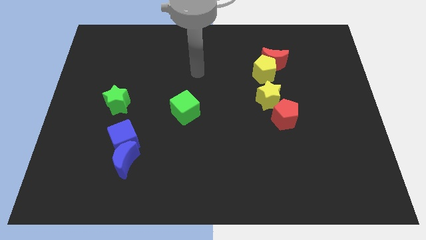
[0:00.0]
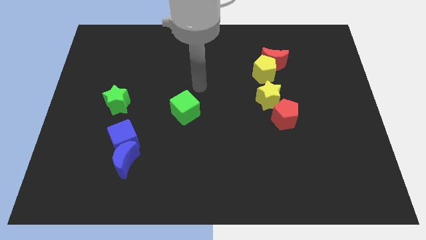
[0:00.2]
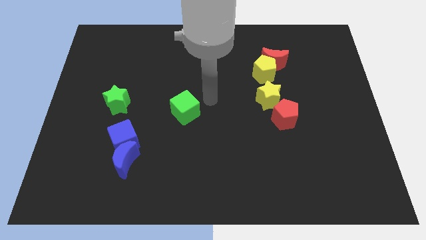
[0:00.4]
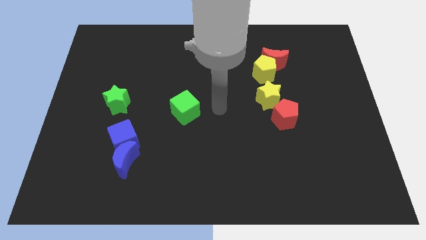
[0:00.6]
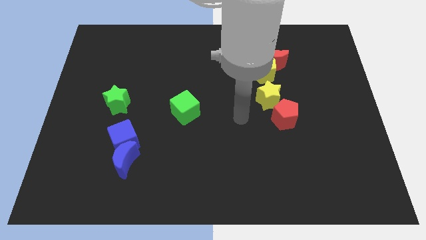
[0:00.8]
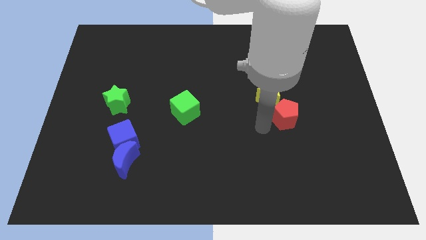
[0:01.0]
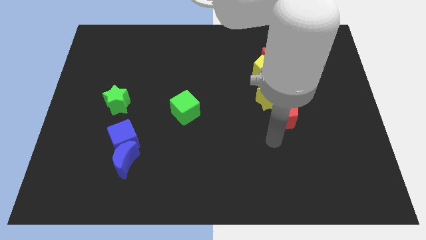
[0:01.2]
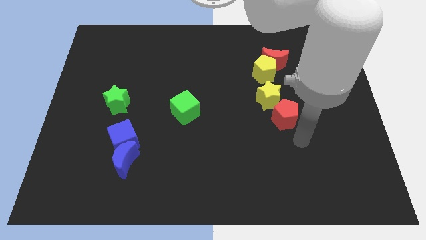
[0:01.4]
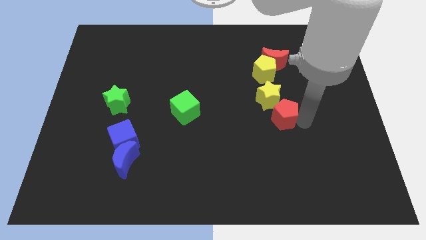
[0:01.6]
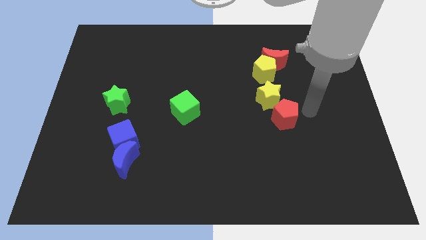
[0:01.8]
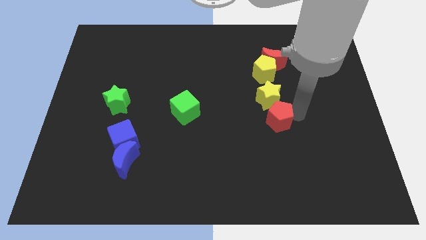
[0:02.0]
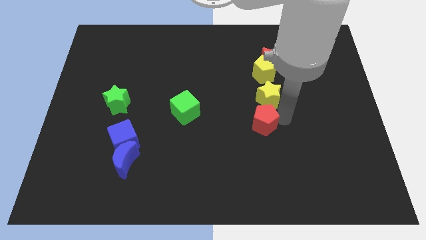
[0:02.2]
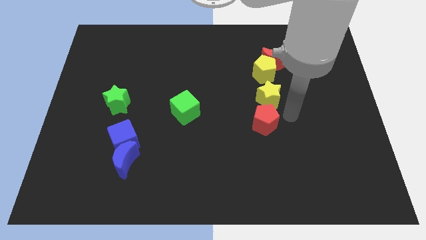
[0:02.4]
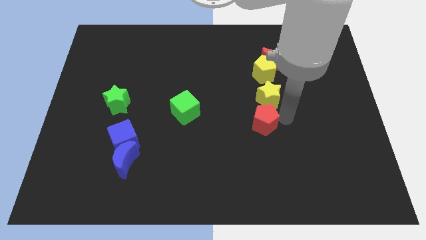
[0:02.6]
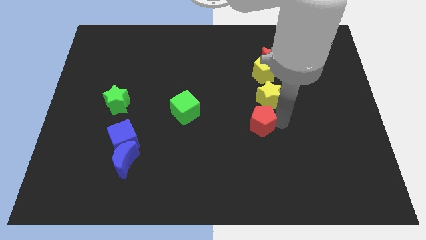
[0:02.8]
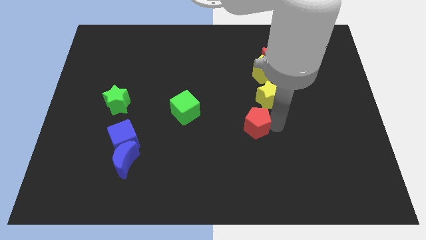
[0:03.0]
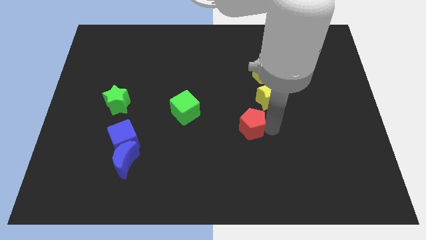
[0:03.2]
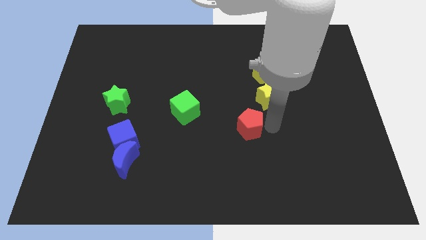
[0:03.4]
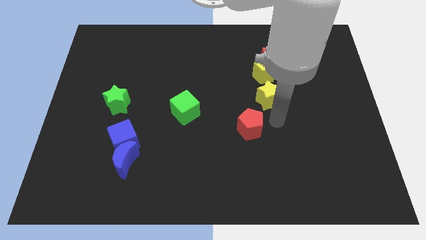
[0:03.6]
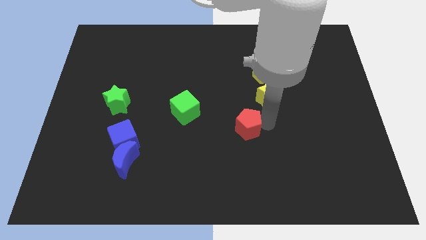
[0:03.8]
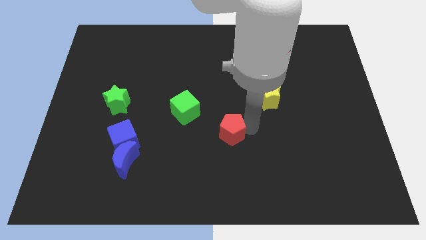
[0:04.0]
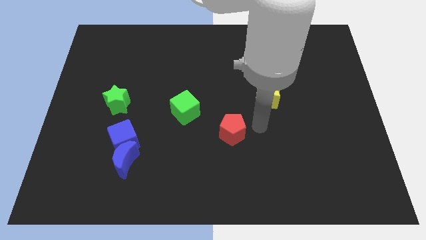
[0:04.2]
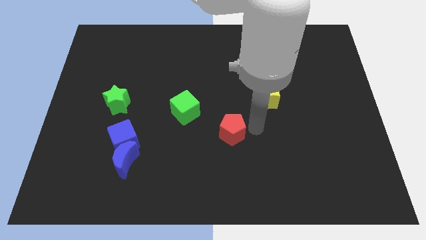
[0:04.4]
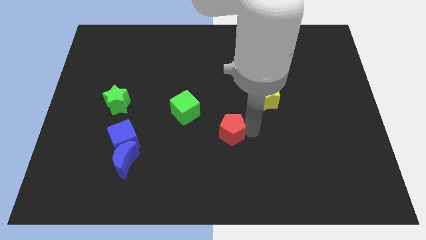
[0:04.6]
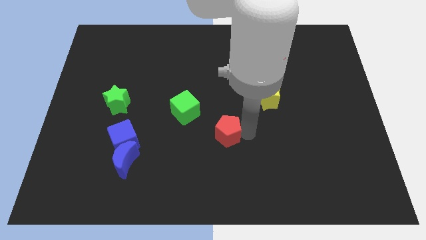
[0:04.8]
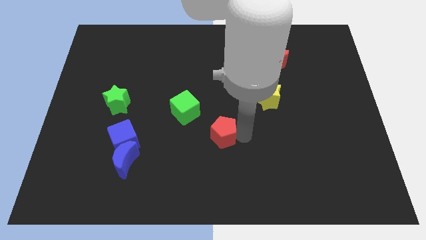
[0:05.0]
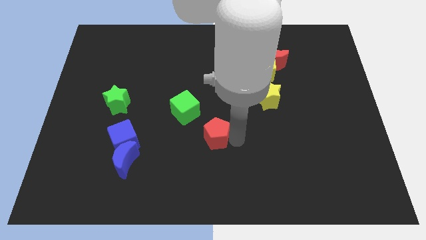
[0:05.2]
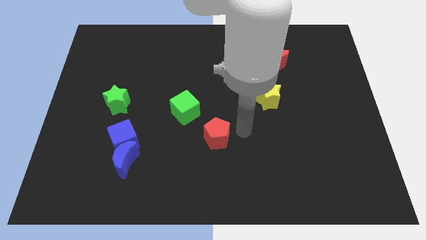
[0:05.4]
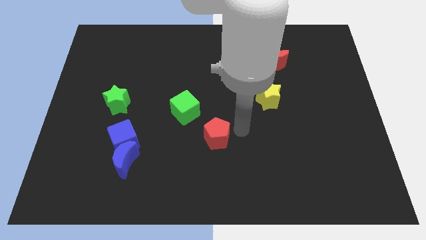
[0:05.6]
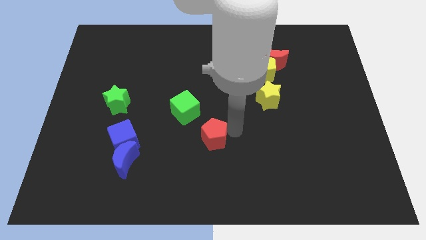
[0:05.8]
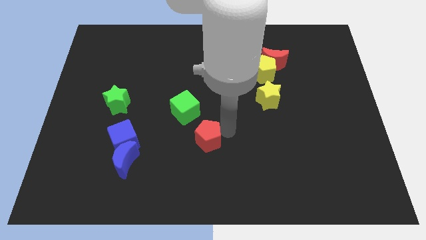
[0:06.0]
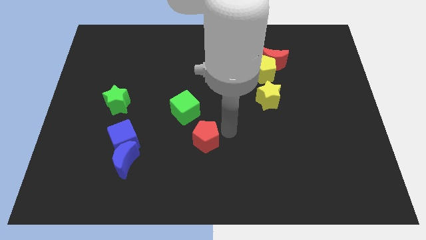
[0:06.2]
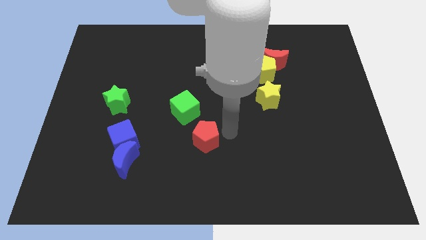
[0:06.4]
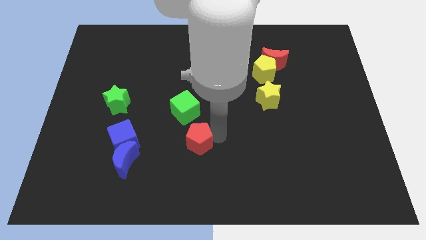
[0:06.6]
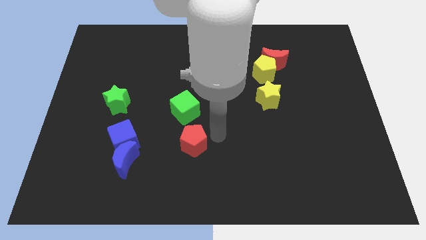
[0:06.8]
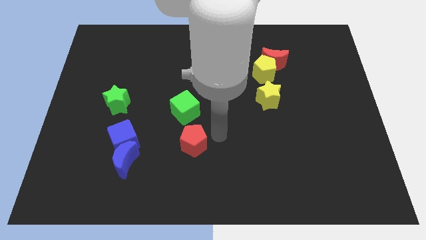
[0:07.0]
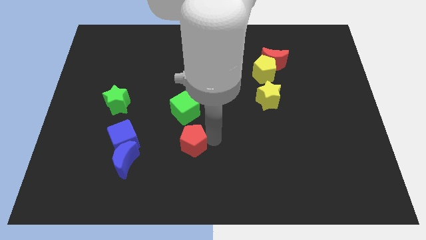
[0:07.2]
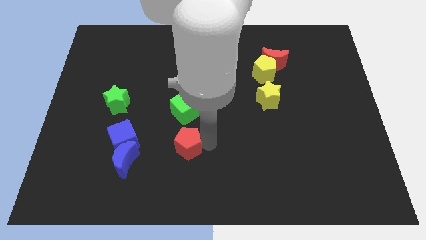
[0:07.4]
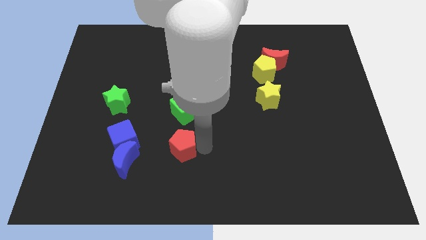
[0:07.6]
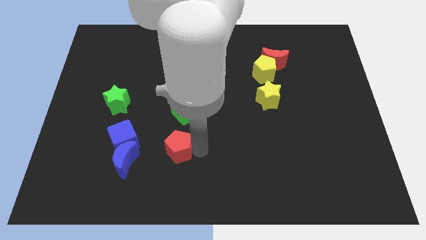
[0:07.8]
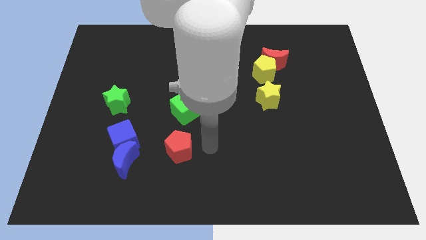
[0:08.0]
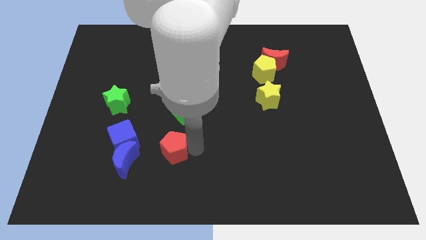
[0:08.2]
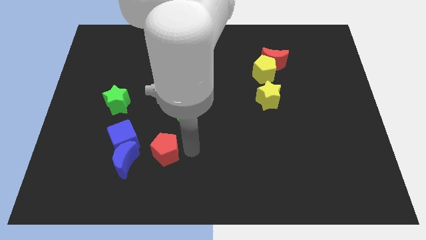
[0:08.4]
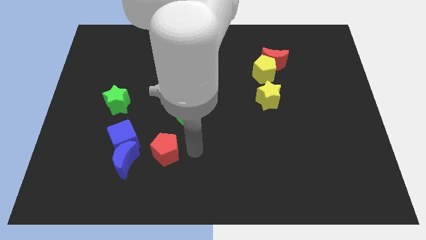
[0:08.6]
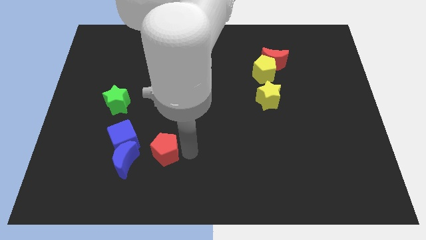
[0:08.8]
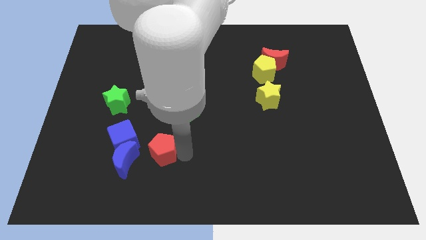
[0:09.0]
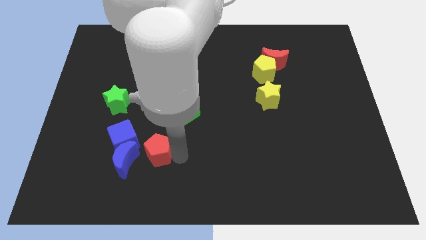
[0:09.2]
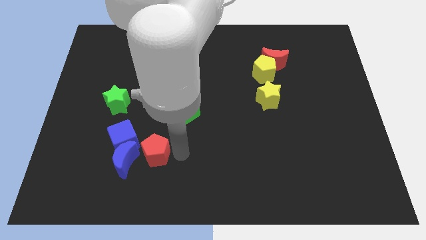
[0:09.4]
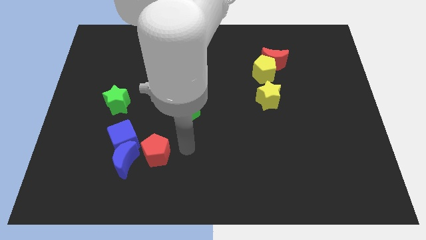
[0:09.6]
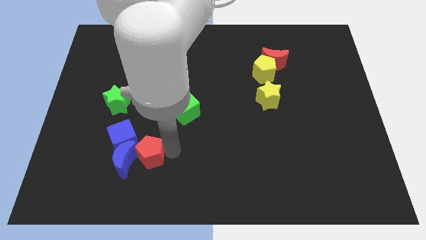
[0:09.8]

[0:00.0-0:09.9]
slide the red pentagon towards the blue moon

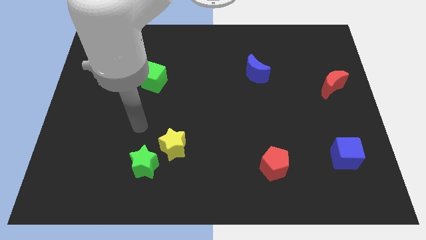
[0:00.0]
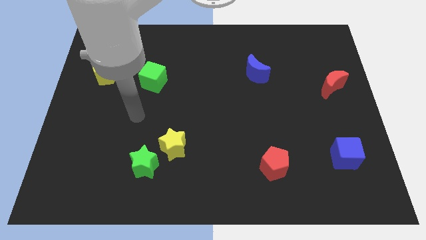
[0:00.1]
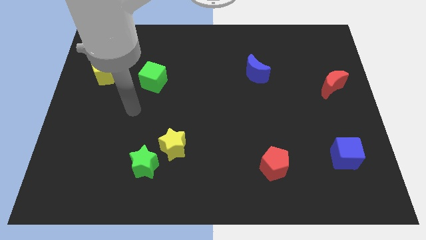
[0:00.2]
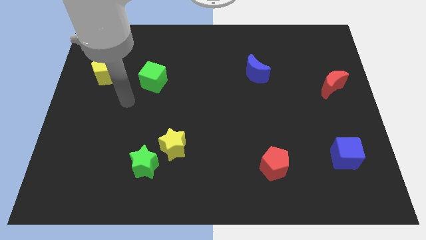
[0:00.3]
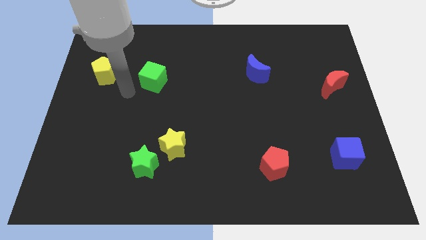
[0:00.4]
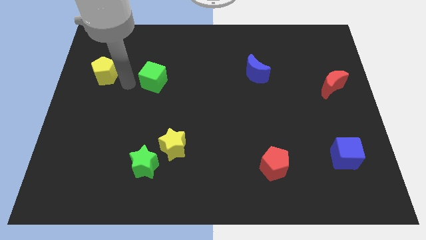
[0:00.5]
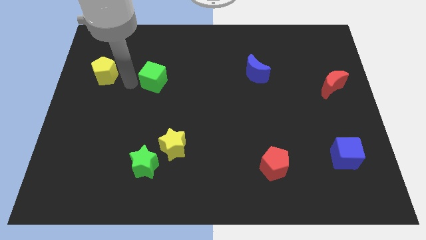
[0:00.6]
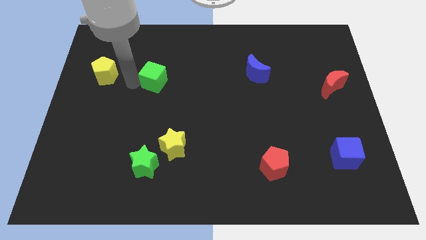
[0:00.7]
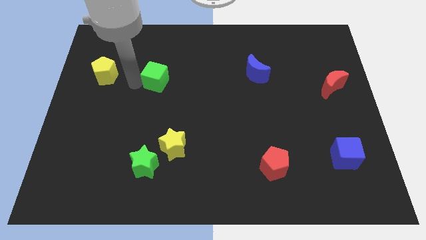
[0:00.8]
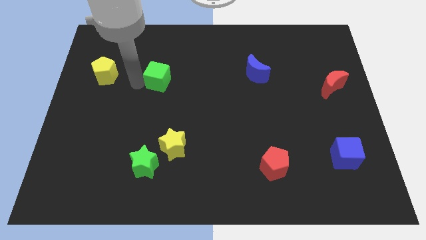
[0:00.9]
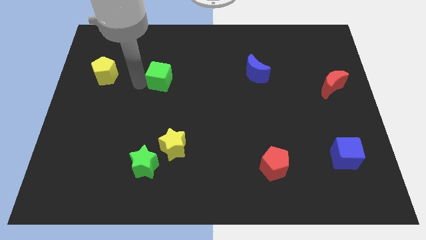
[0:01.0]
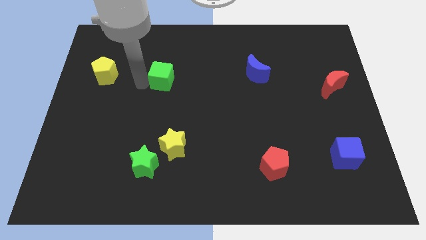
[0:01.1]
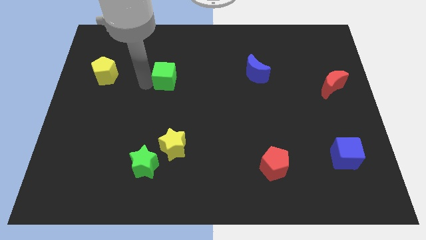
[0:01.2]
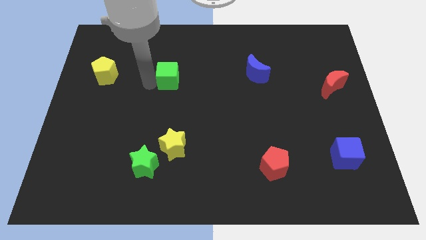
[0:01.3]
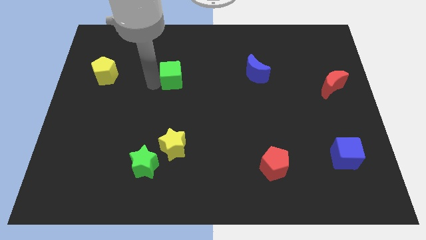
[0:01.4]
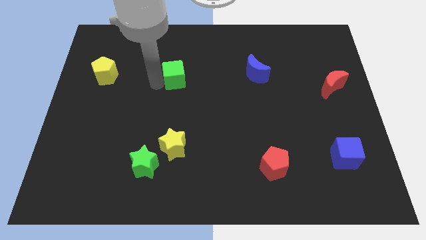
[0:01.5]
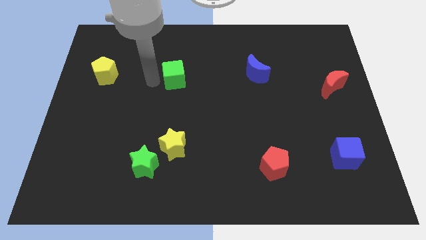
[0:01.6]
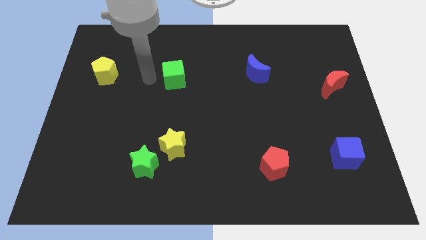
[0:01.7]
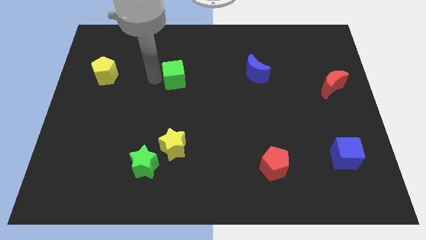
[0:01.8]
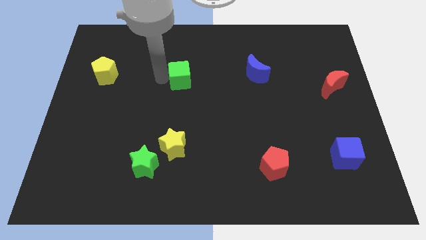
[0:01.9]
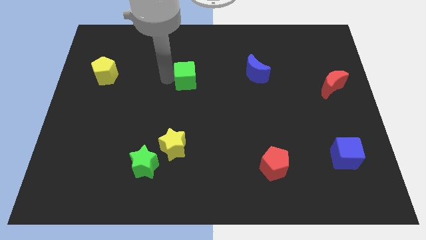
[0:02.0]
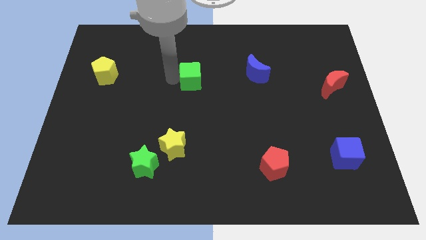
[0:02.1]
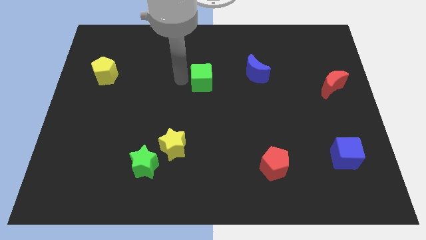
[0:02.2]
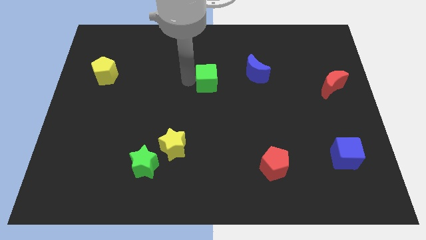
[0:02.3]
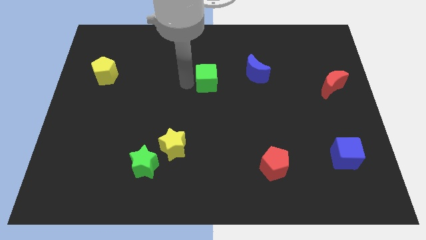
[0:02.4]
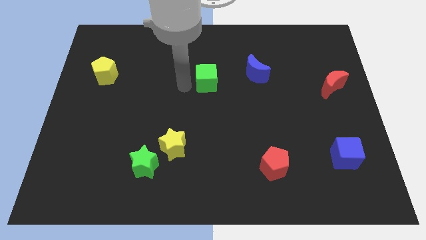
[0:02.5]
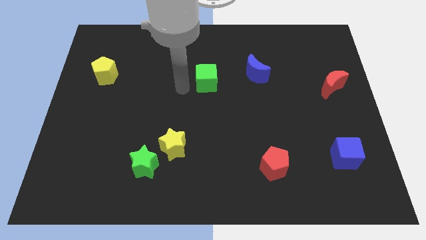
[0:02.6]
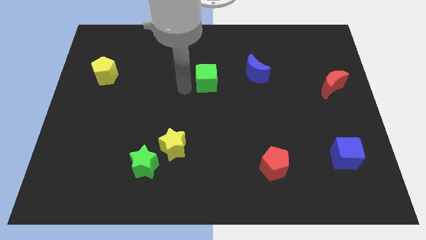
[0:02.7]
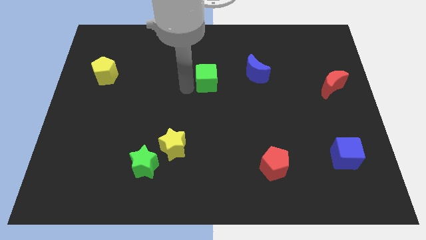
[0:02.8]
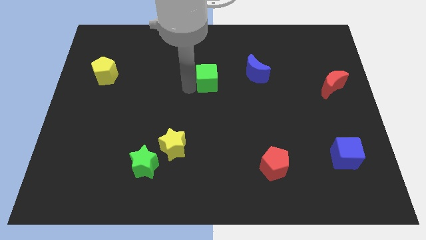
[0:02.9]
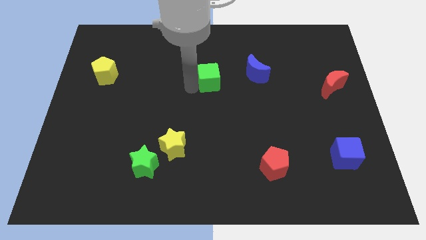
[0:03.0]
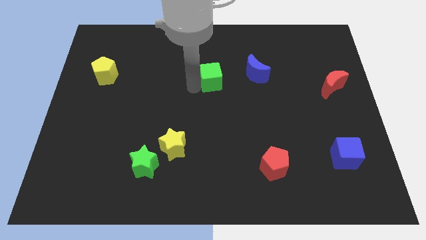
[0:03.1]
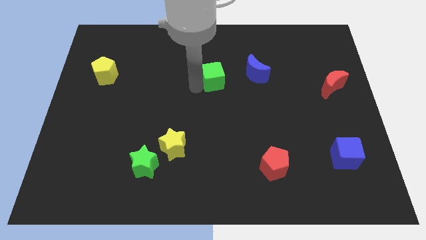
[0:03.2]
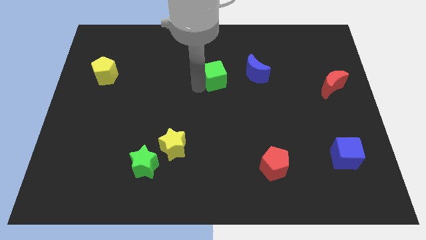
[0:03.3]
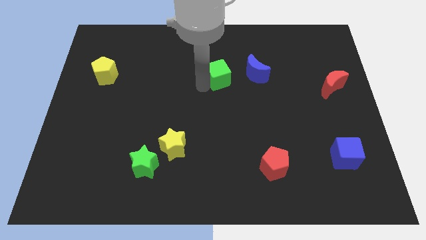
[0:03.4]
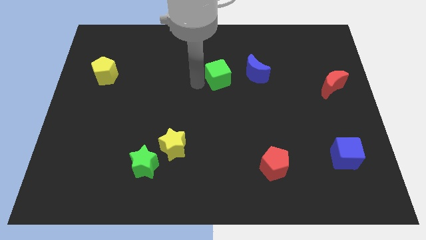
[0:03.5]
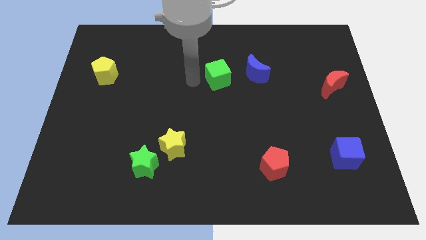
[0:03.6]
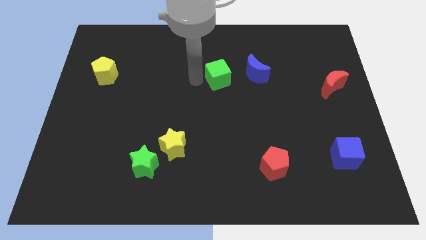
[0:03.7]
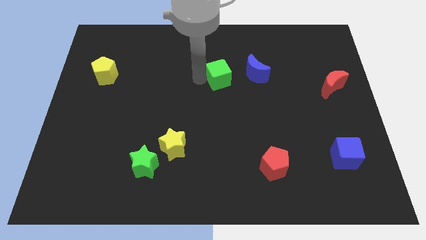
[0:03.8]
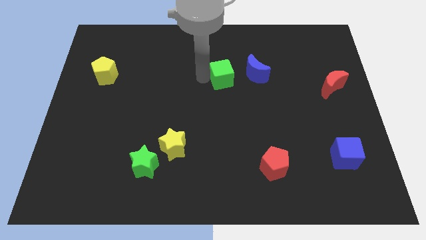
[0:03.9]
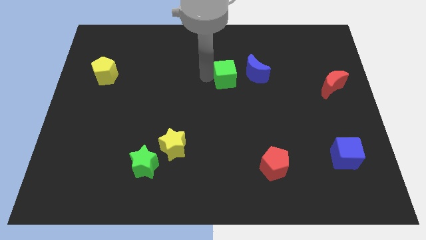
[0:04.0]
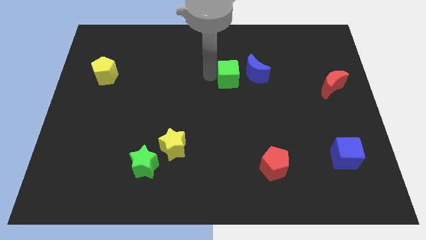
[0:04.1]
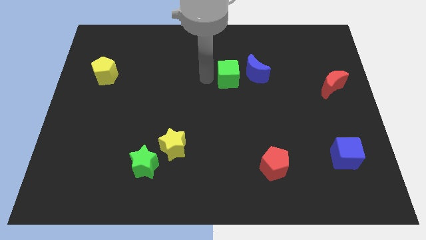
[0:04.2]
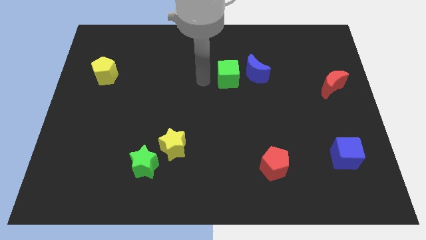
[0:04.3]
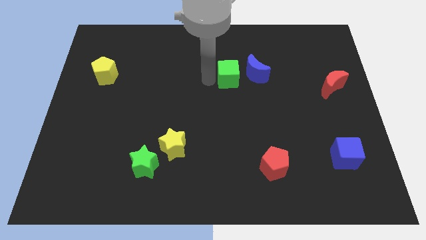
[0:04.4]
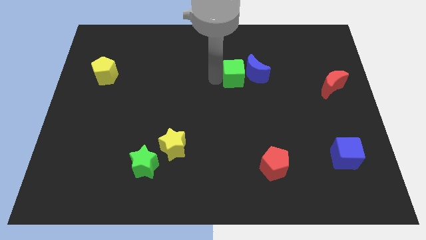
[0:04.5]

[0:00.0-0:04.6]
put the green cube next to the blue moon
